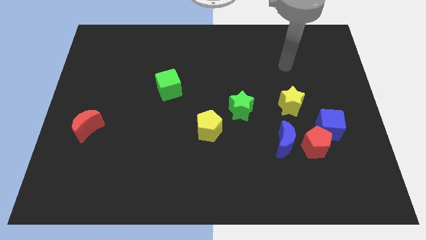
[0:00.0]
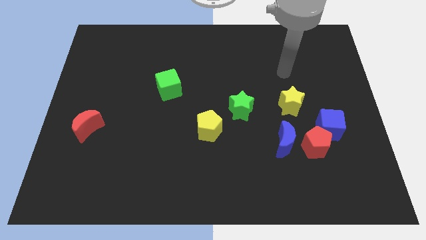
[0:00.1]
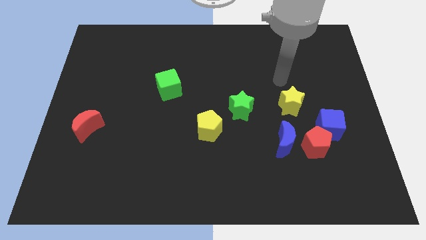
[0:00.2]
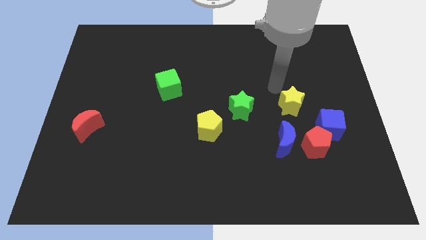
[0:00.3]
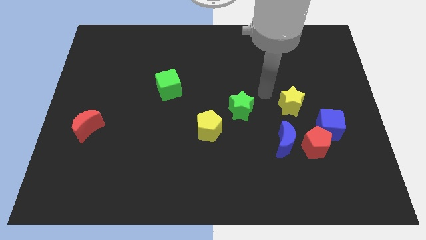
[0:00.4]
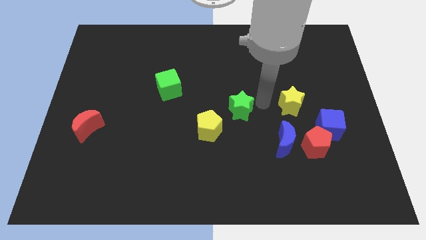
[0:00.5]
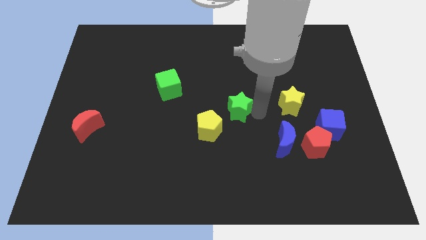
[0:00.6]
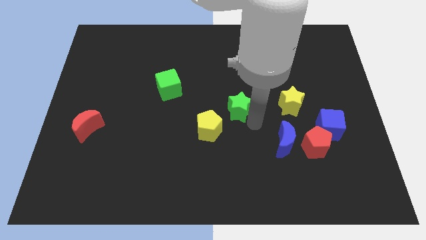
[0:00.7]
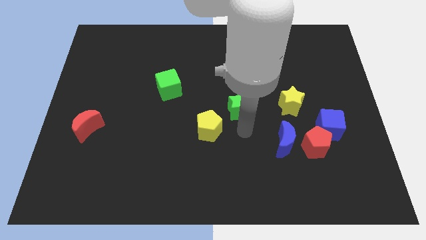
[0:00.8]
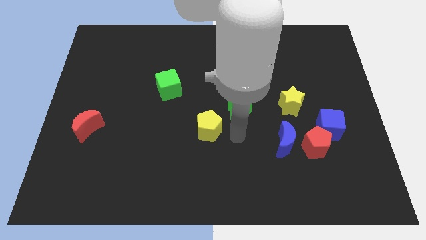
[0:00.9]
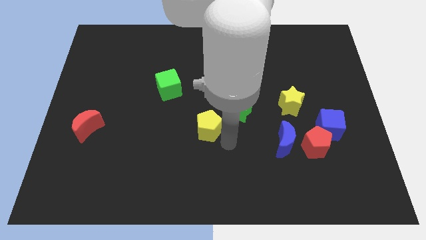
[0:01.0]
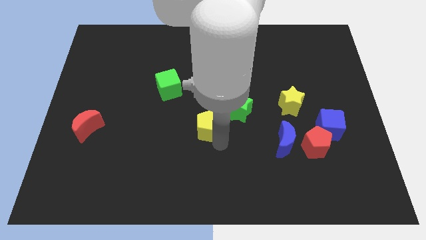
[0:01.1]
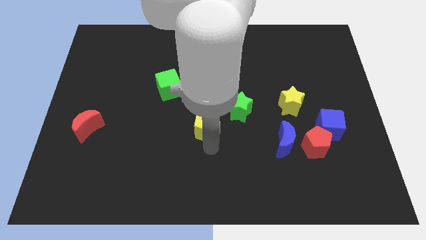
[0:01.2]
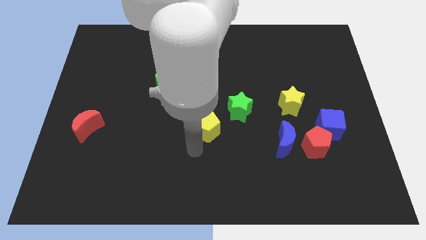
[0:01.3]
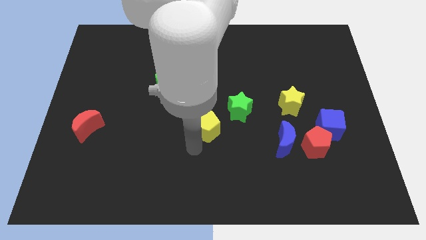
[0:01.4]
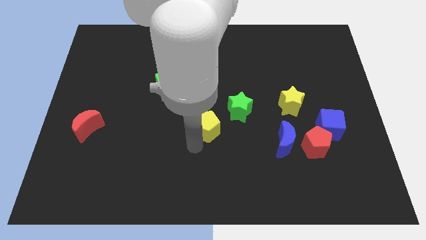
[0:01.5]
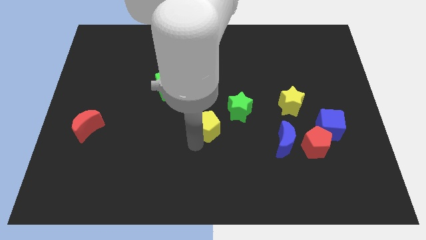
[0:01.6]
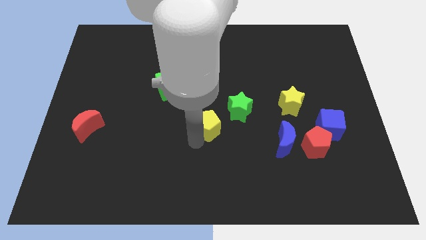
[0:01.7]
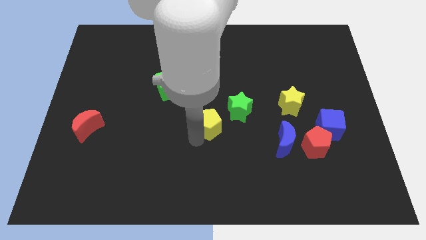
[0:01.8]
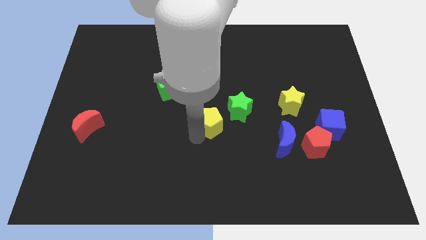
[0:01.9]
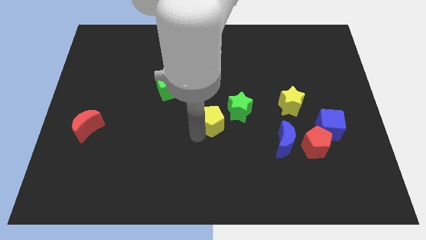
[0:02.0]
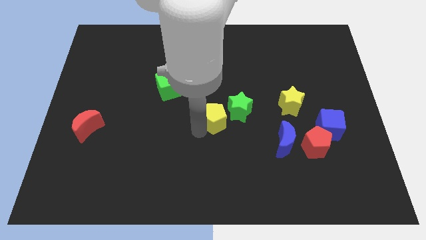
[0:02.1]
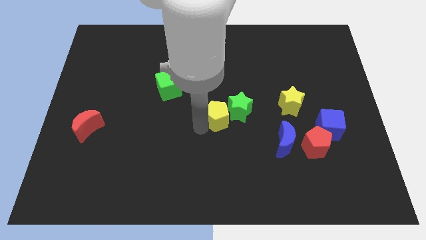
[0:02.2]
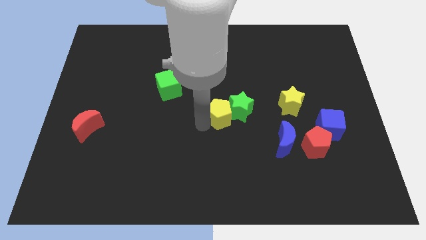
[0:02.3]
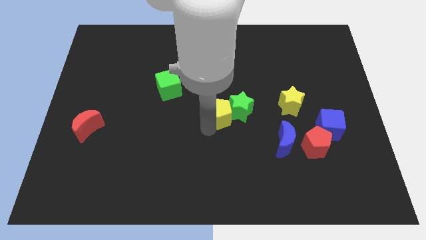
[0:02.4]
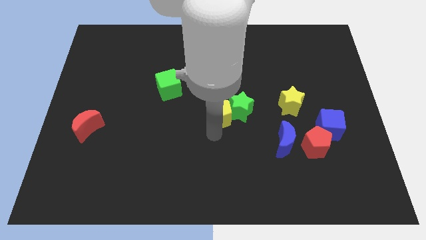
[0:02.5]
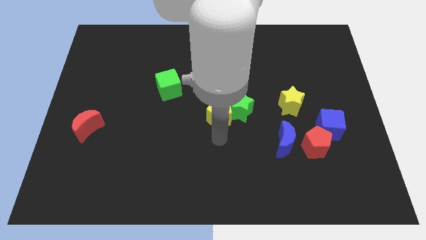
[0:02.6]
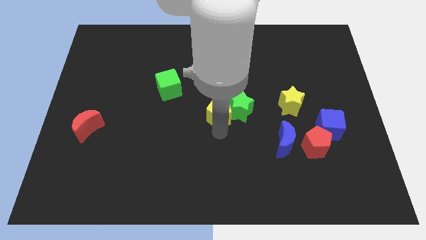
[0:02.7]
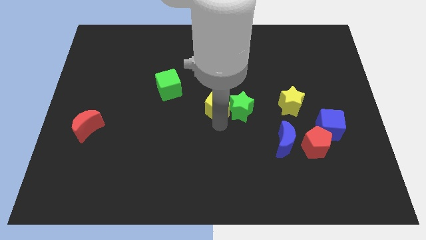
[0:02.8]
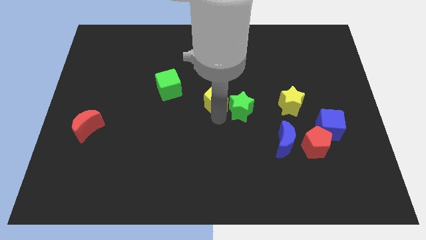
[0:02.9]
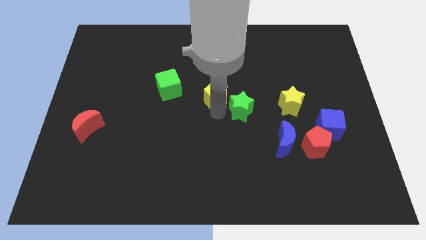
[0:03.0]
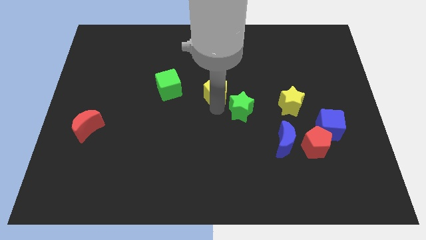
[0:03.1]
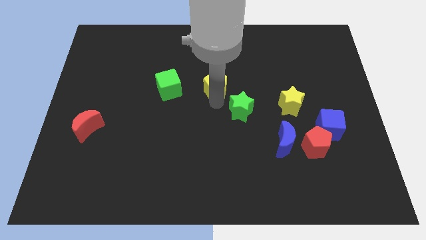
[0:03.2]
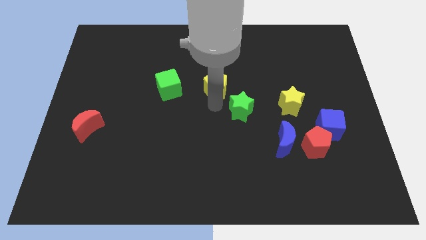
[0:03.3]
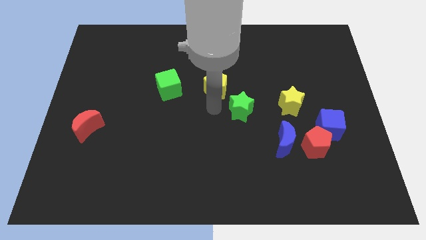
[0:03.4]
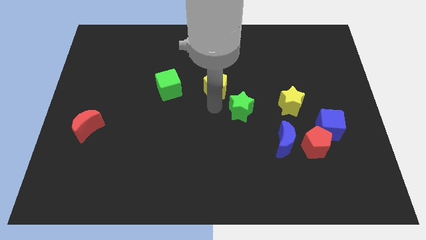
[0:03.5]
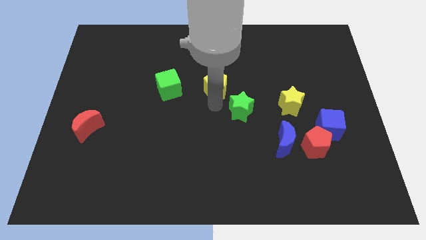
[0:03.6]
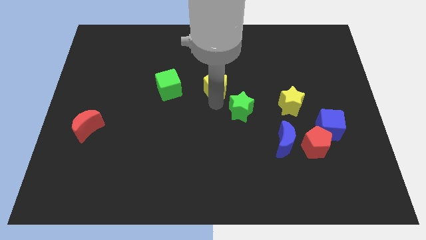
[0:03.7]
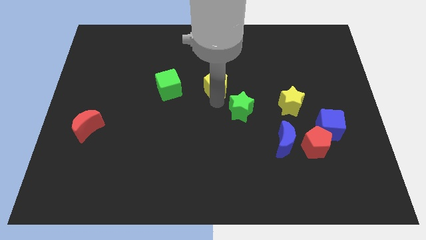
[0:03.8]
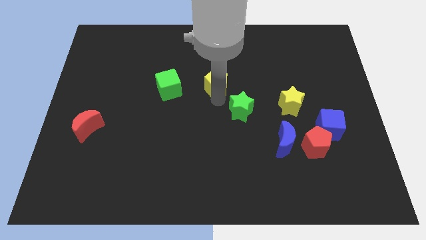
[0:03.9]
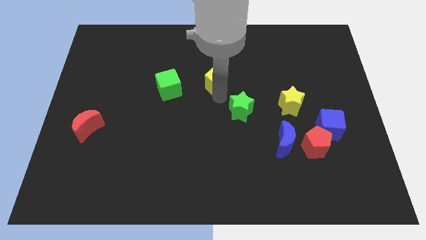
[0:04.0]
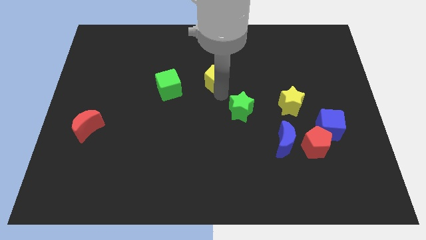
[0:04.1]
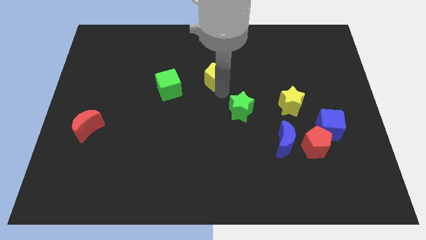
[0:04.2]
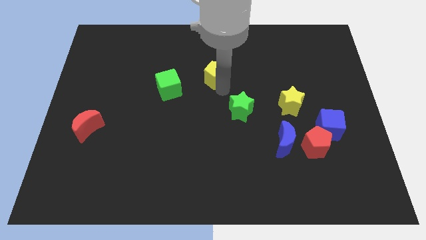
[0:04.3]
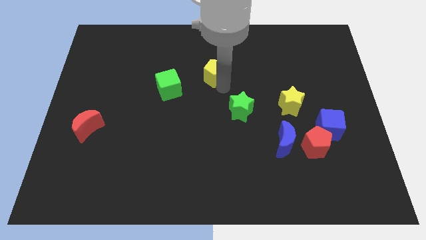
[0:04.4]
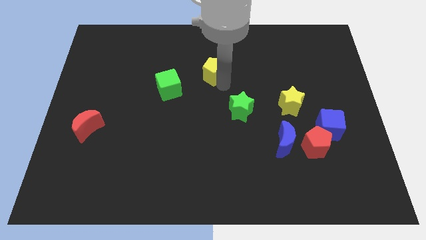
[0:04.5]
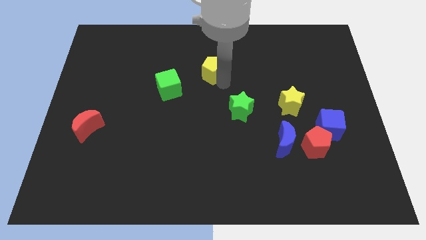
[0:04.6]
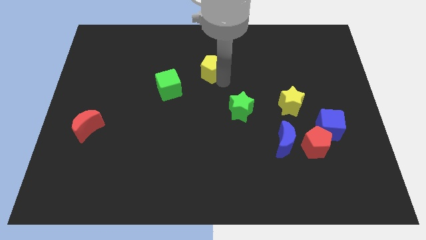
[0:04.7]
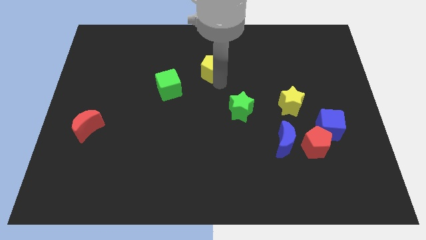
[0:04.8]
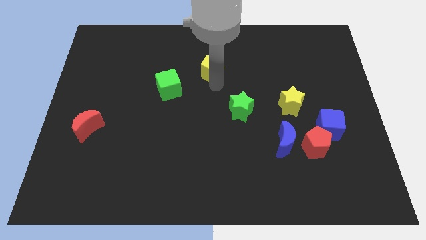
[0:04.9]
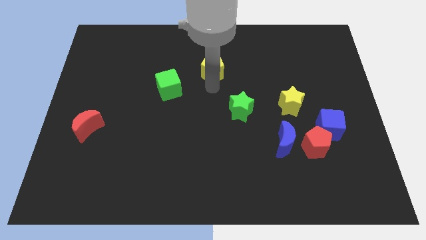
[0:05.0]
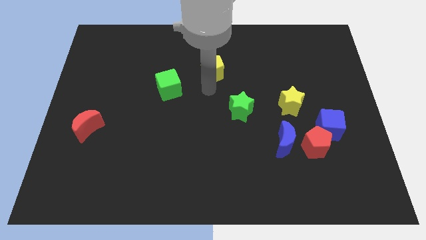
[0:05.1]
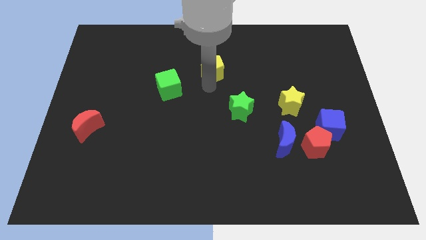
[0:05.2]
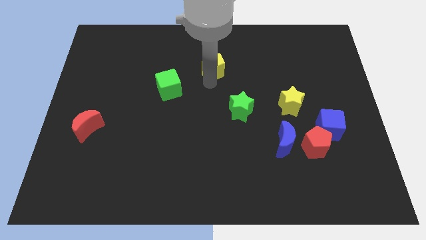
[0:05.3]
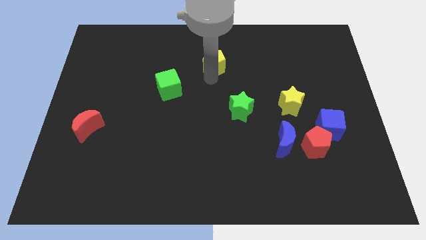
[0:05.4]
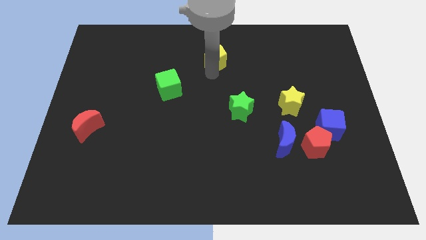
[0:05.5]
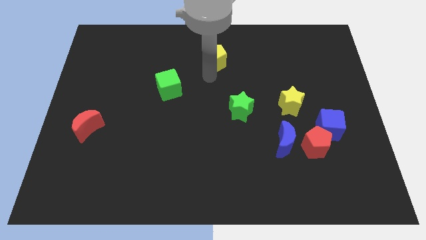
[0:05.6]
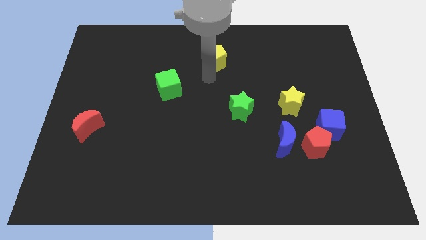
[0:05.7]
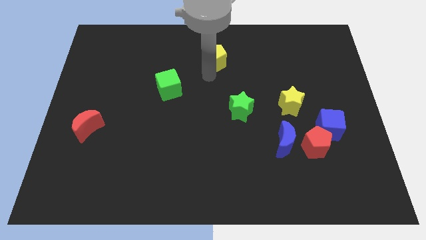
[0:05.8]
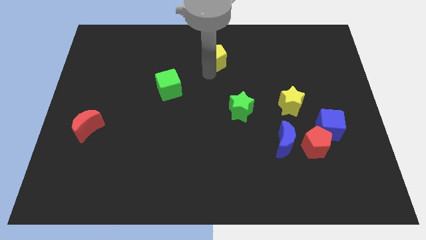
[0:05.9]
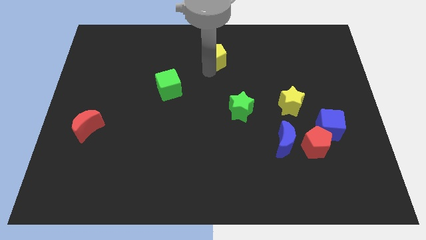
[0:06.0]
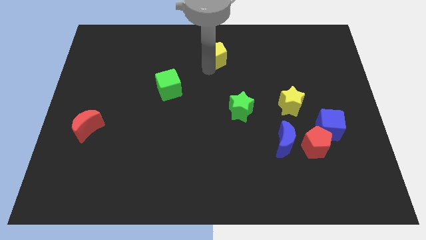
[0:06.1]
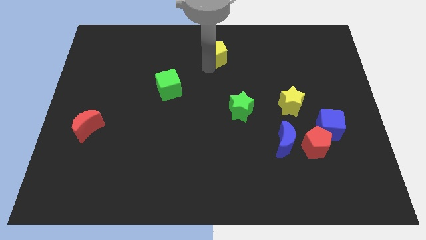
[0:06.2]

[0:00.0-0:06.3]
slide the yellow pentagon to the towards your base

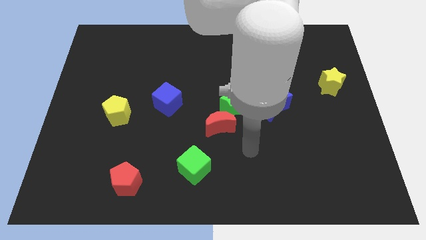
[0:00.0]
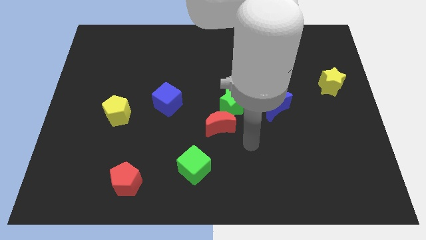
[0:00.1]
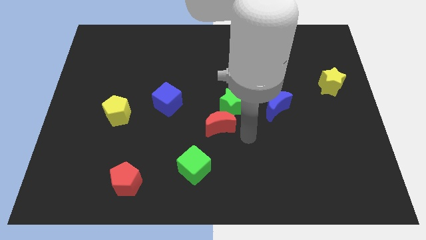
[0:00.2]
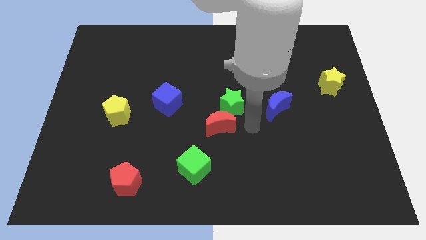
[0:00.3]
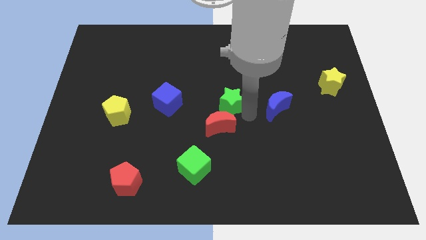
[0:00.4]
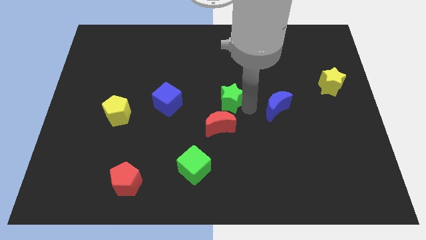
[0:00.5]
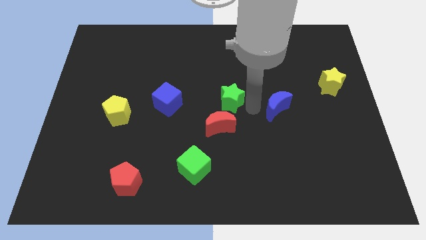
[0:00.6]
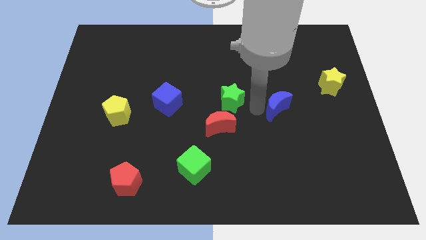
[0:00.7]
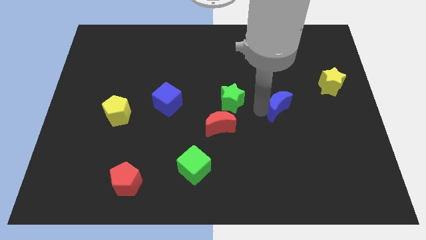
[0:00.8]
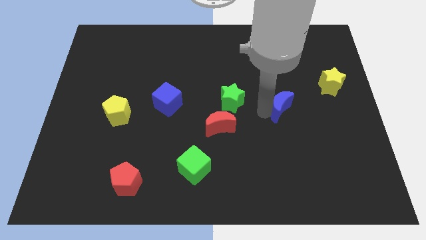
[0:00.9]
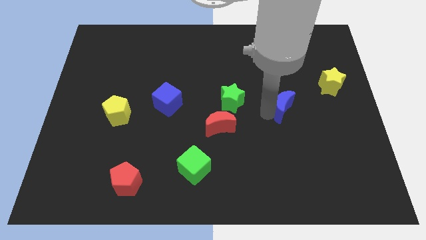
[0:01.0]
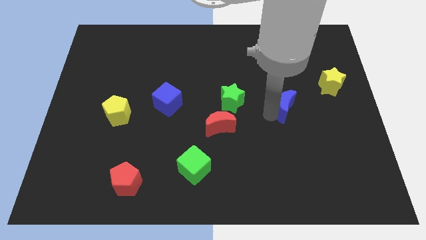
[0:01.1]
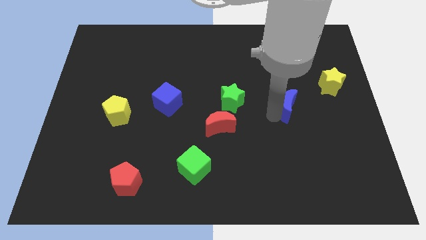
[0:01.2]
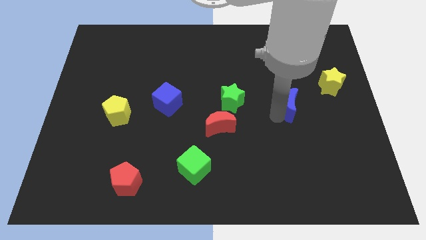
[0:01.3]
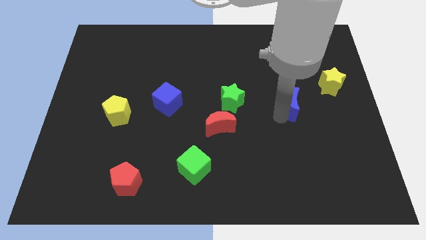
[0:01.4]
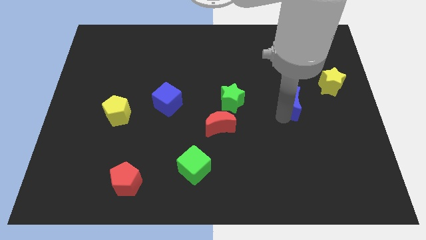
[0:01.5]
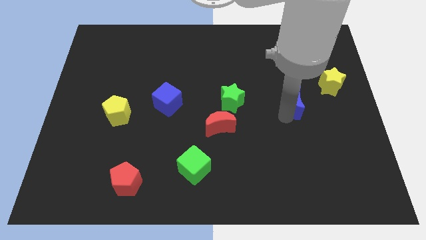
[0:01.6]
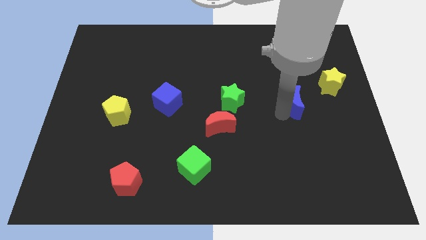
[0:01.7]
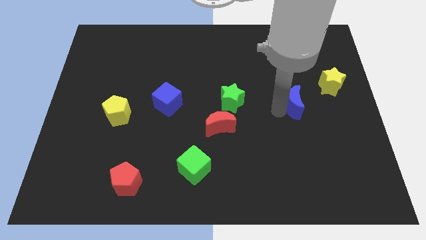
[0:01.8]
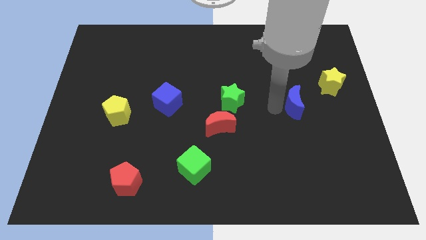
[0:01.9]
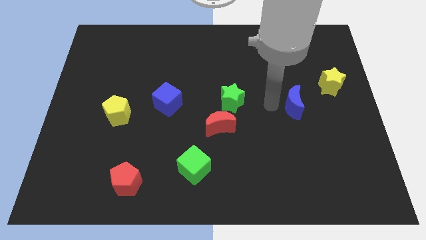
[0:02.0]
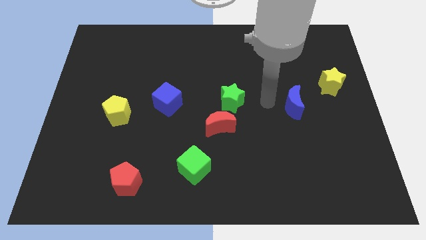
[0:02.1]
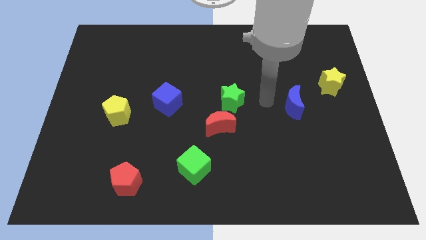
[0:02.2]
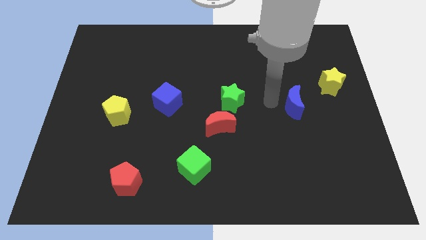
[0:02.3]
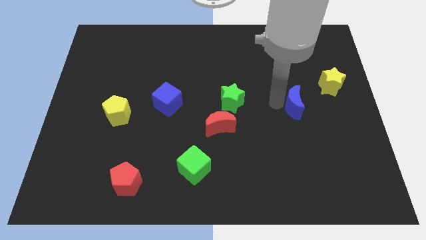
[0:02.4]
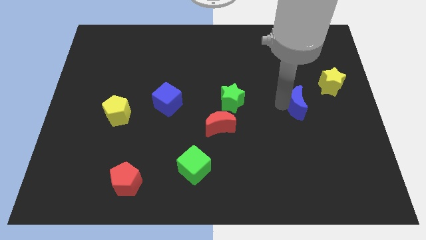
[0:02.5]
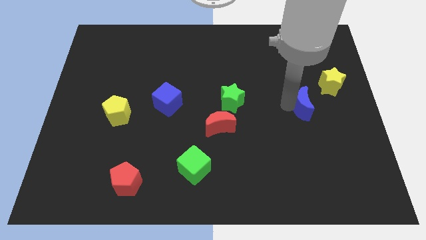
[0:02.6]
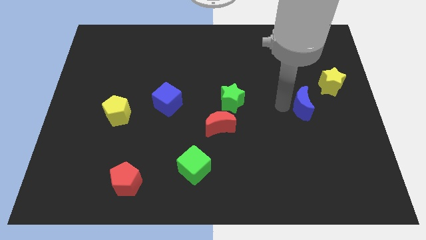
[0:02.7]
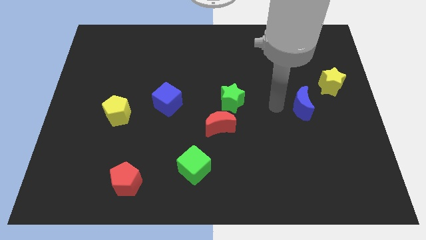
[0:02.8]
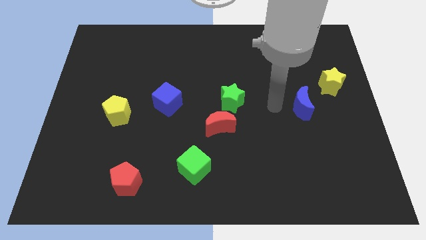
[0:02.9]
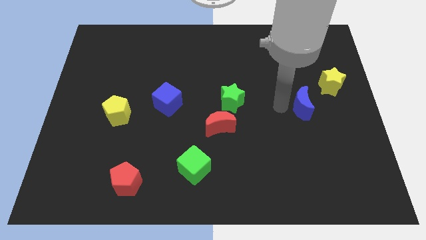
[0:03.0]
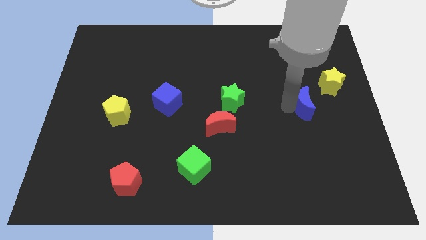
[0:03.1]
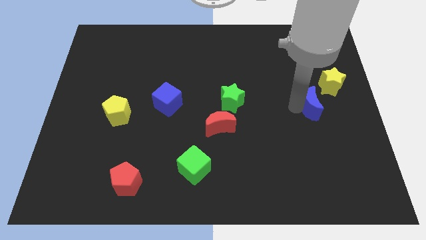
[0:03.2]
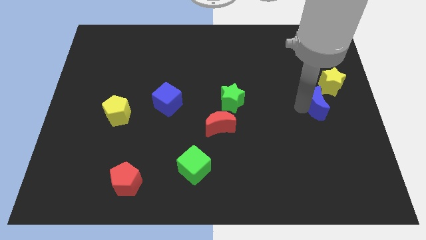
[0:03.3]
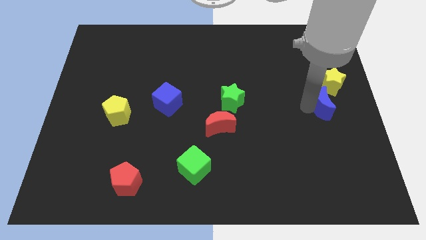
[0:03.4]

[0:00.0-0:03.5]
move the blue moon to the right side
